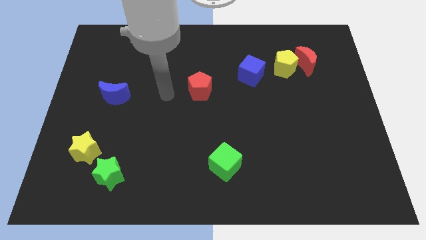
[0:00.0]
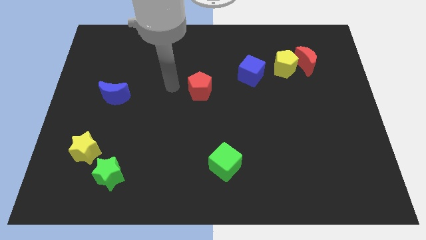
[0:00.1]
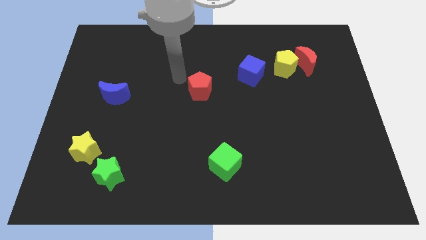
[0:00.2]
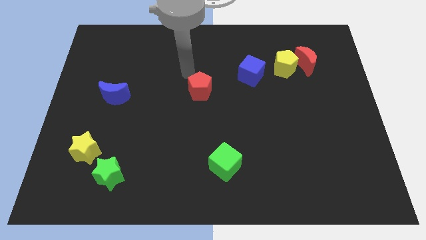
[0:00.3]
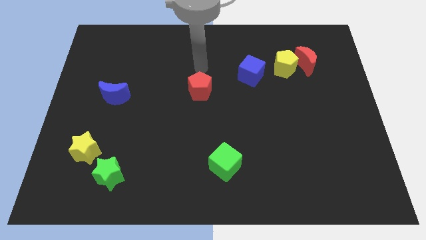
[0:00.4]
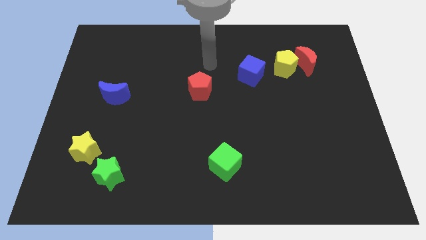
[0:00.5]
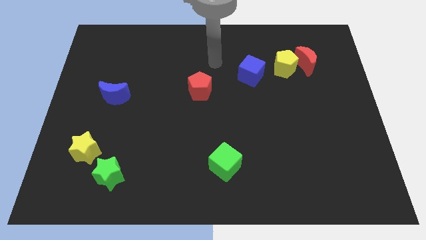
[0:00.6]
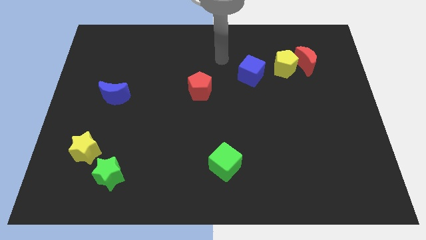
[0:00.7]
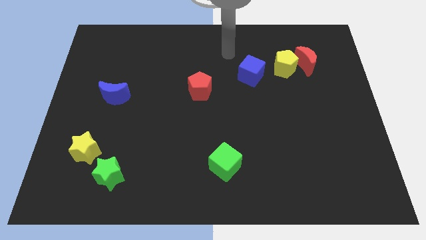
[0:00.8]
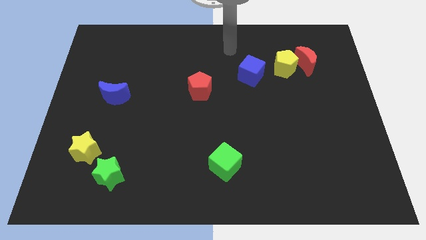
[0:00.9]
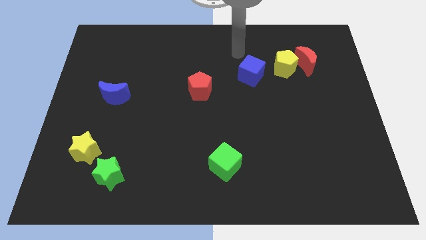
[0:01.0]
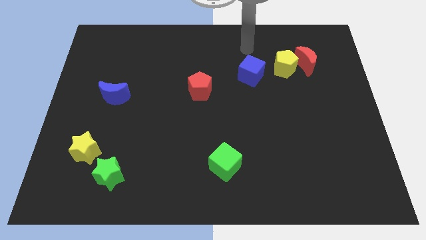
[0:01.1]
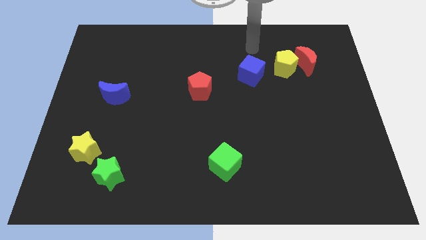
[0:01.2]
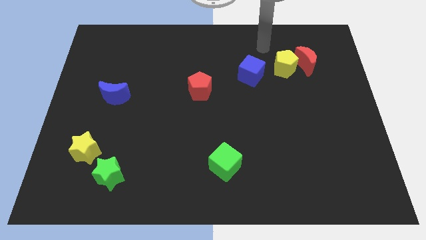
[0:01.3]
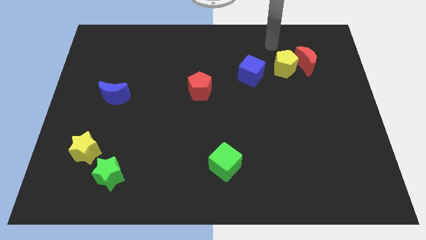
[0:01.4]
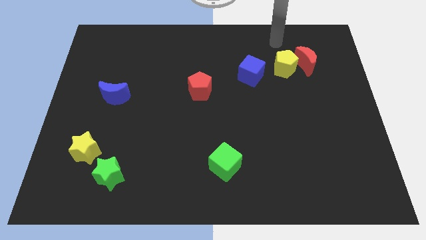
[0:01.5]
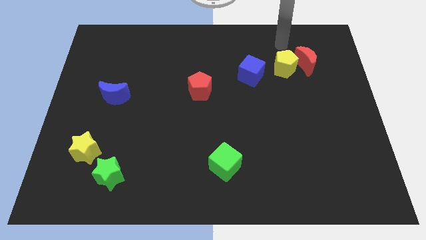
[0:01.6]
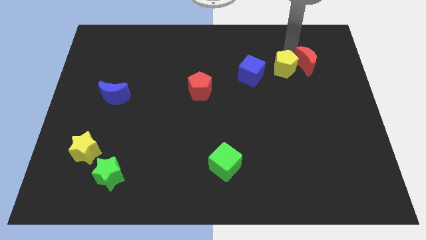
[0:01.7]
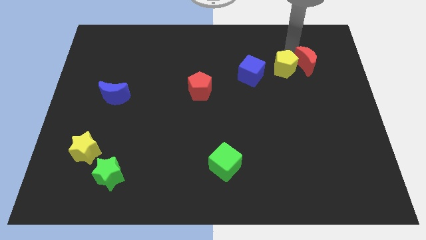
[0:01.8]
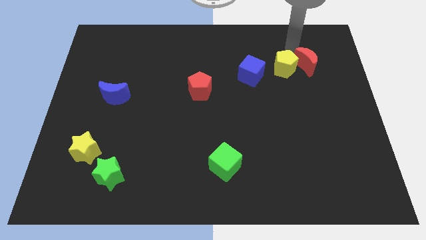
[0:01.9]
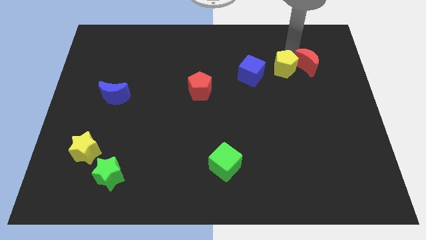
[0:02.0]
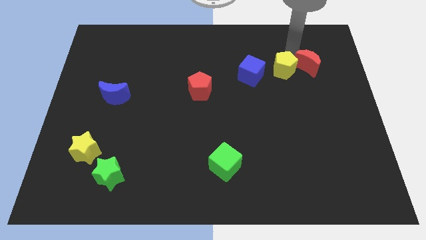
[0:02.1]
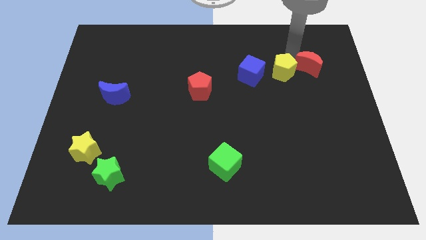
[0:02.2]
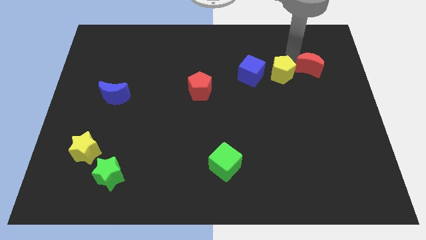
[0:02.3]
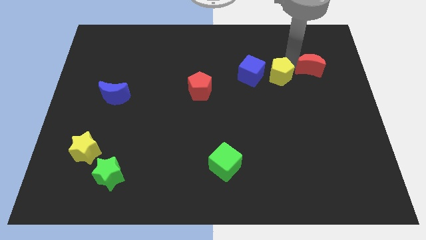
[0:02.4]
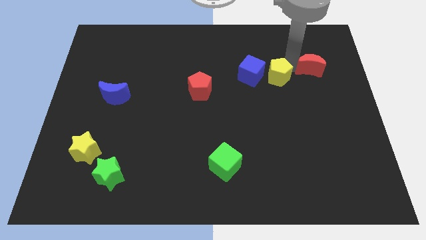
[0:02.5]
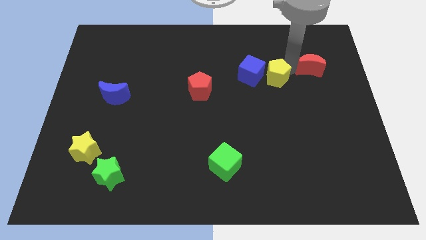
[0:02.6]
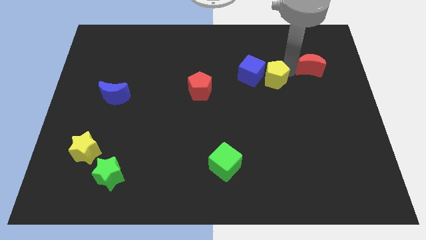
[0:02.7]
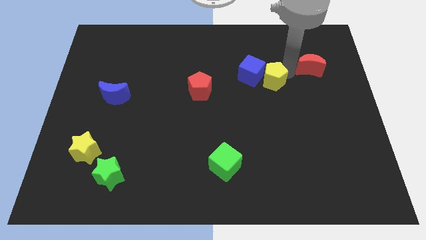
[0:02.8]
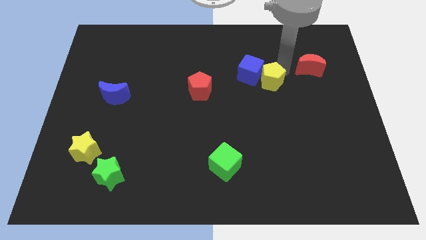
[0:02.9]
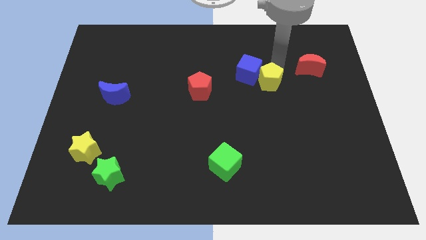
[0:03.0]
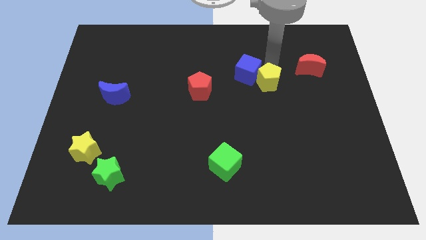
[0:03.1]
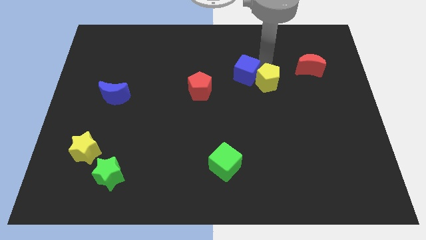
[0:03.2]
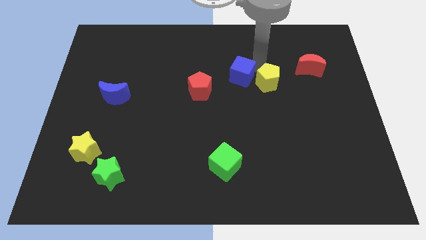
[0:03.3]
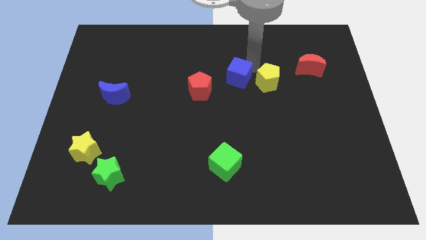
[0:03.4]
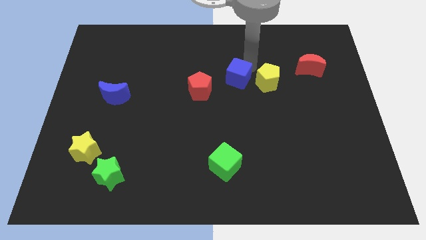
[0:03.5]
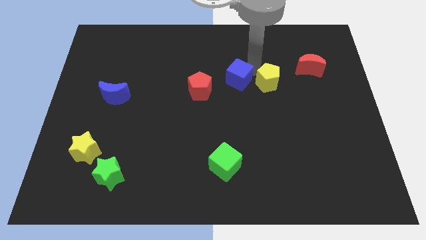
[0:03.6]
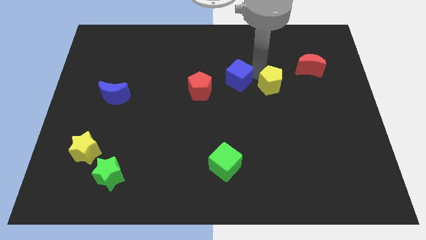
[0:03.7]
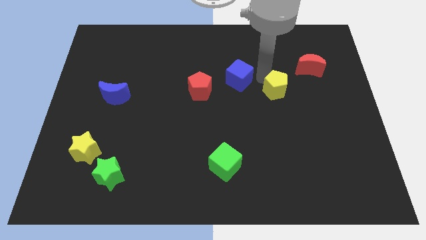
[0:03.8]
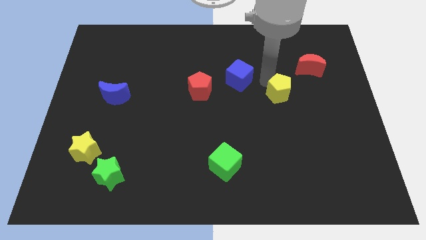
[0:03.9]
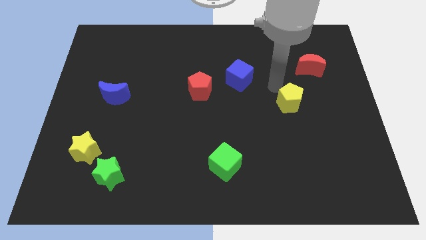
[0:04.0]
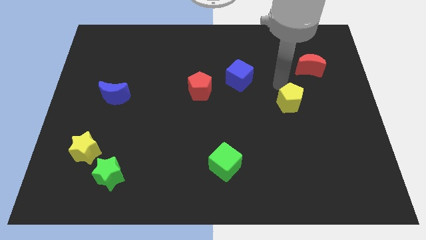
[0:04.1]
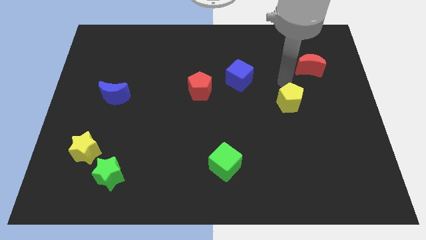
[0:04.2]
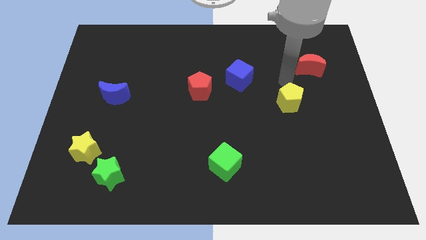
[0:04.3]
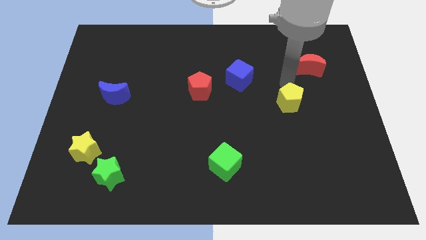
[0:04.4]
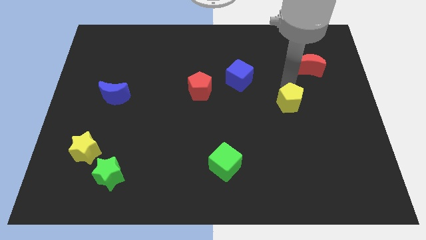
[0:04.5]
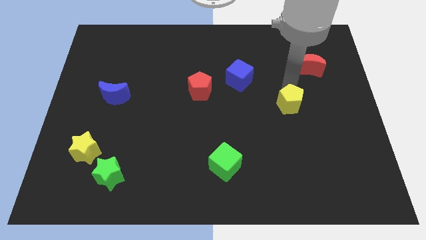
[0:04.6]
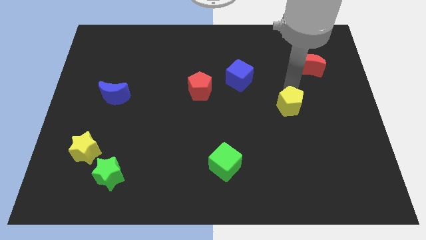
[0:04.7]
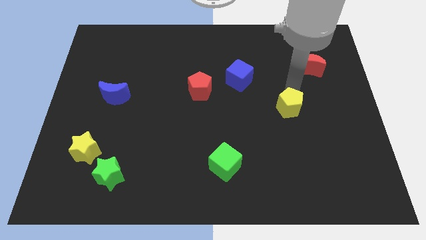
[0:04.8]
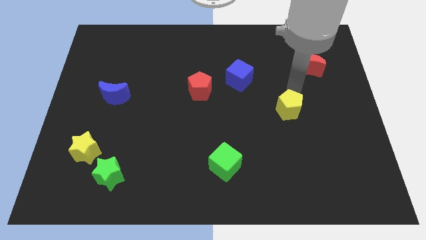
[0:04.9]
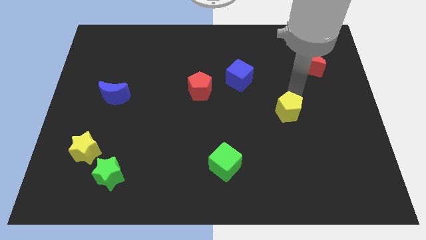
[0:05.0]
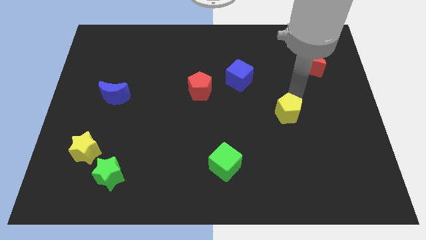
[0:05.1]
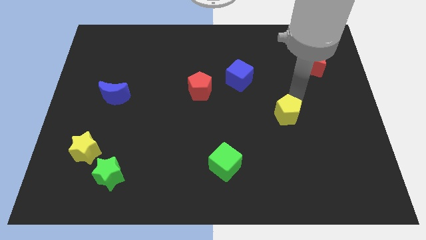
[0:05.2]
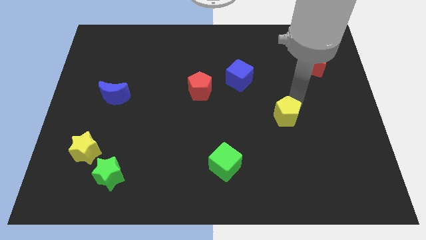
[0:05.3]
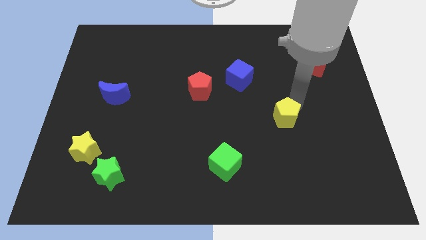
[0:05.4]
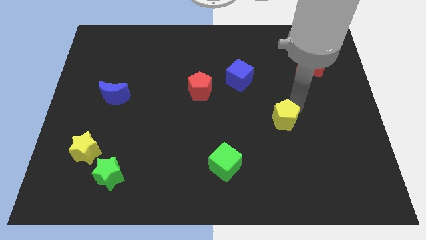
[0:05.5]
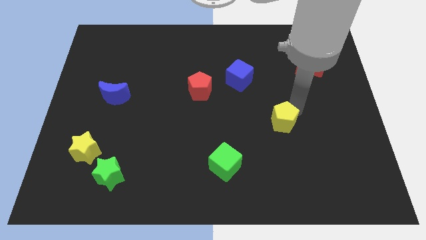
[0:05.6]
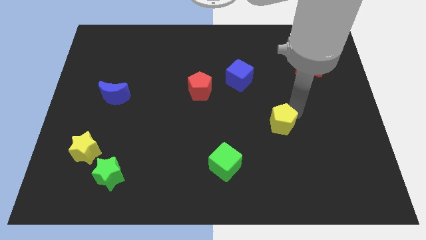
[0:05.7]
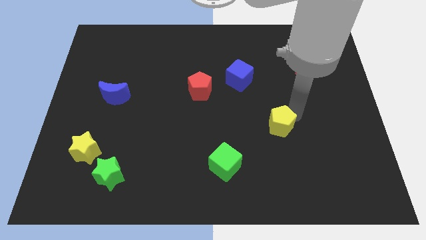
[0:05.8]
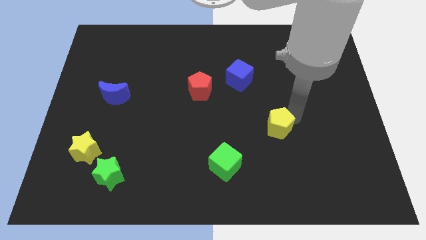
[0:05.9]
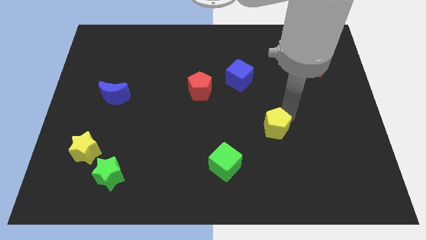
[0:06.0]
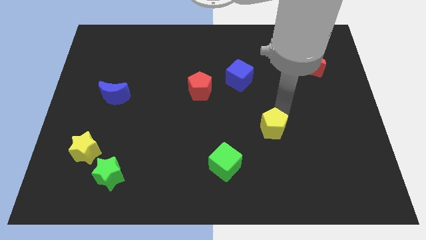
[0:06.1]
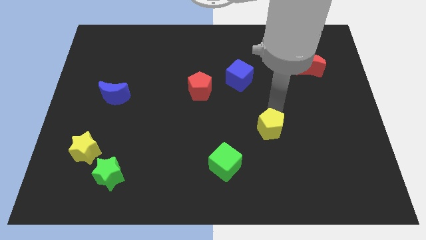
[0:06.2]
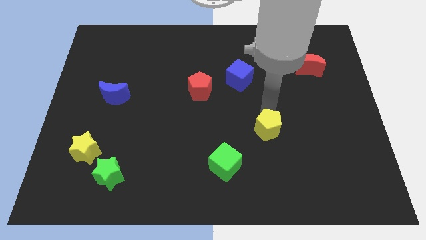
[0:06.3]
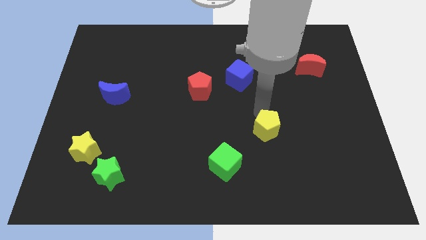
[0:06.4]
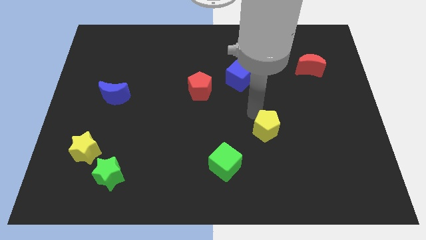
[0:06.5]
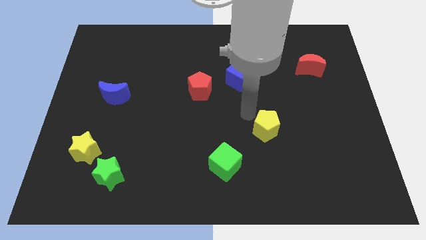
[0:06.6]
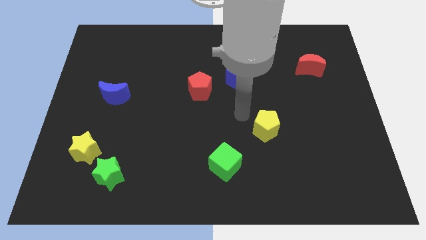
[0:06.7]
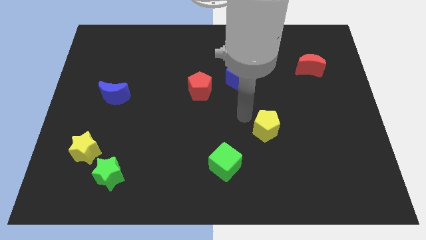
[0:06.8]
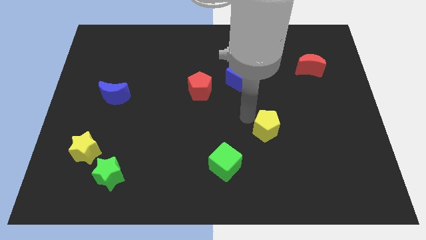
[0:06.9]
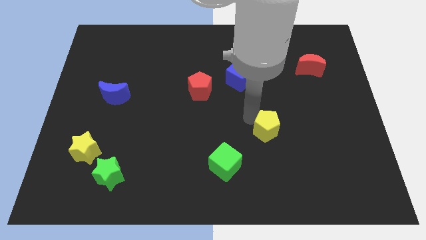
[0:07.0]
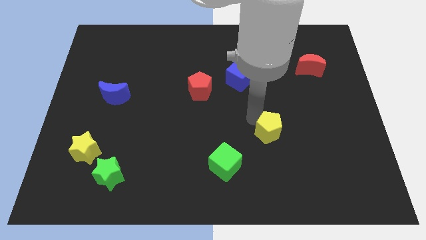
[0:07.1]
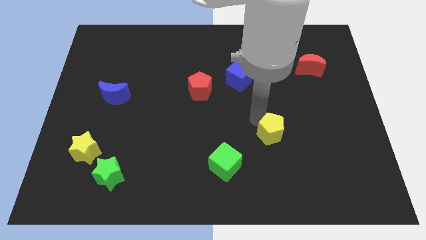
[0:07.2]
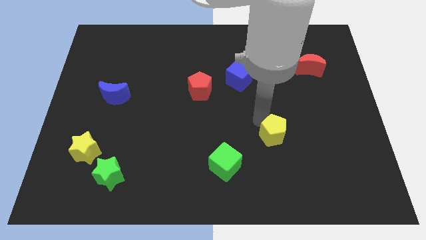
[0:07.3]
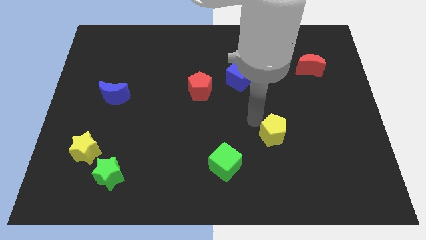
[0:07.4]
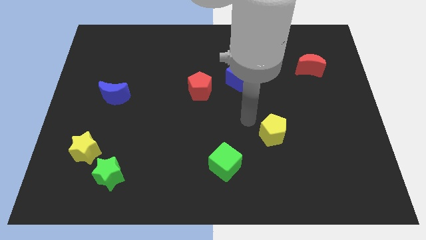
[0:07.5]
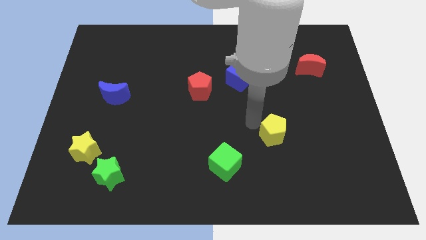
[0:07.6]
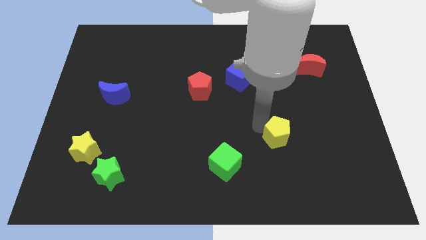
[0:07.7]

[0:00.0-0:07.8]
move the yellow pentagon downwards

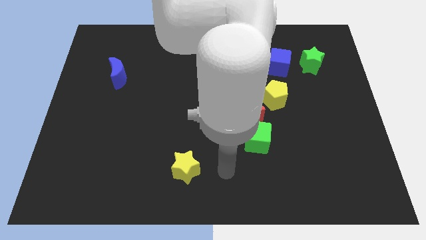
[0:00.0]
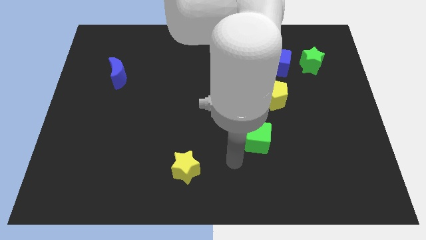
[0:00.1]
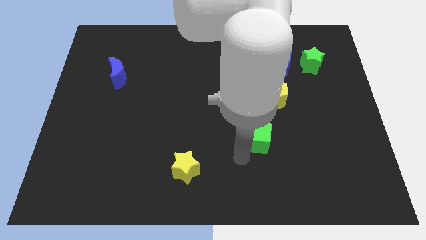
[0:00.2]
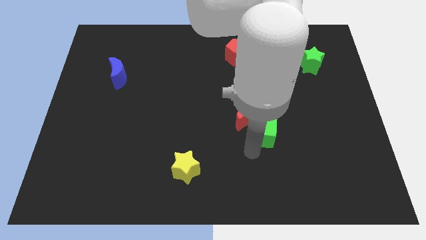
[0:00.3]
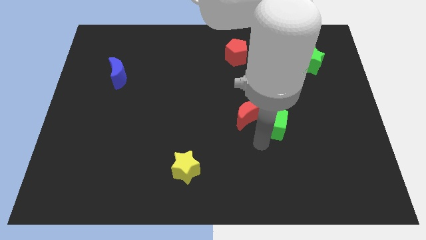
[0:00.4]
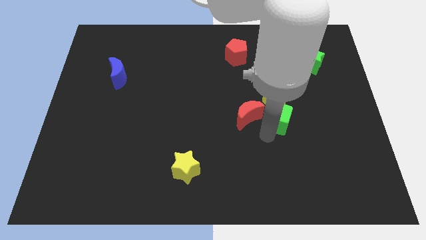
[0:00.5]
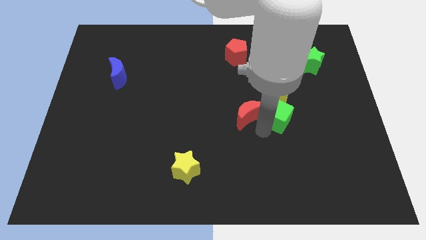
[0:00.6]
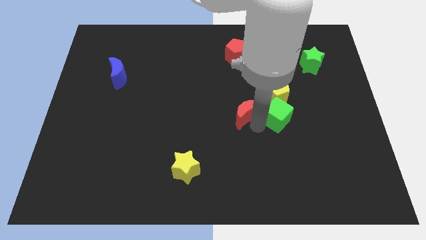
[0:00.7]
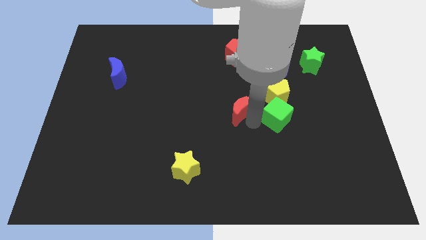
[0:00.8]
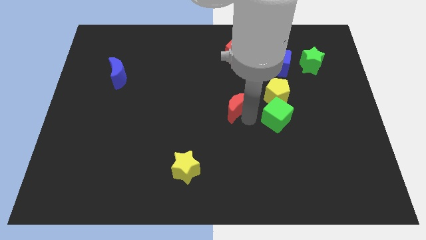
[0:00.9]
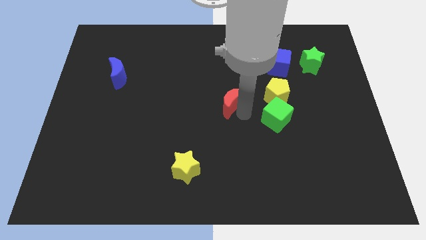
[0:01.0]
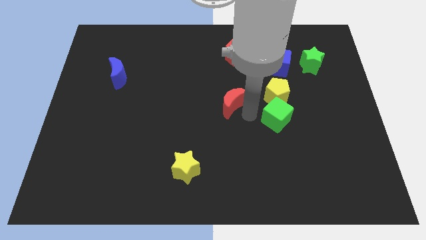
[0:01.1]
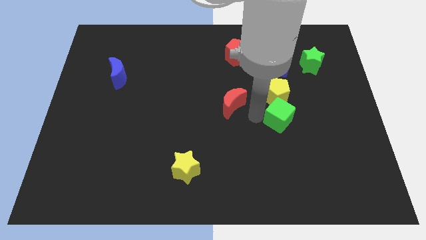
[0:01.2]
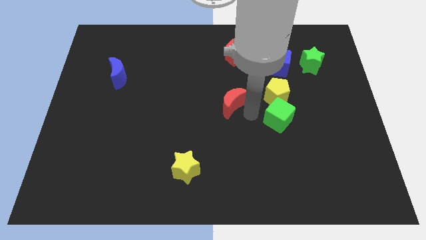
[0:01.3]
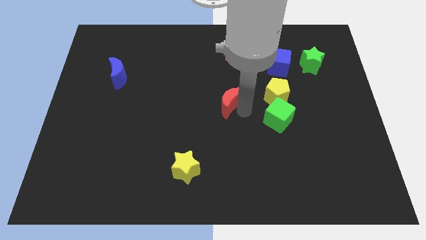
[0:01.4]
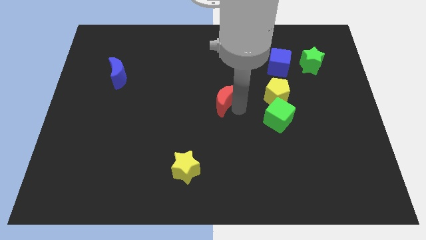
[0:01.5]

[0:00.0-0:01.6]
slightly slide the red moon up and left diagonally
